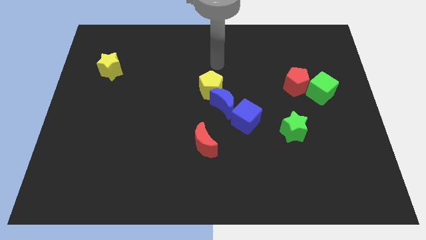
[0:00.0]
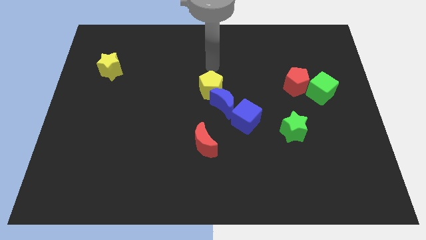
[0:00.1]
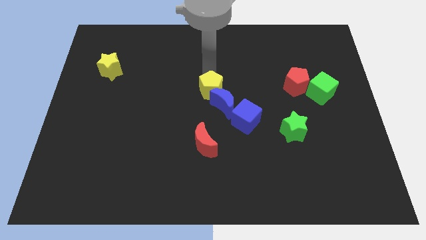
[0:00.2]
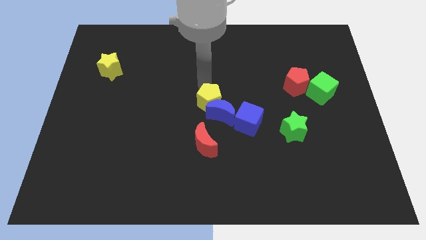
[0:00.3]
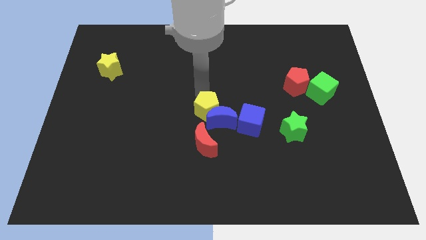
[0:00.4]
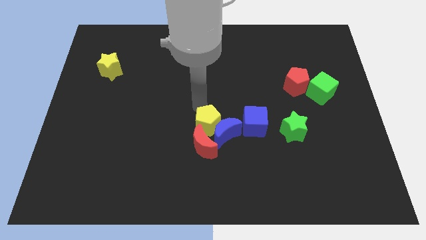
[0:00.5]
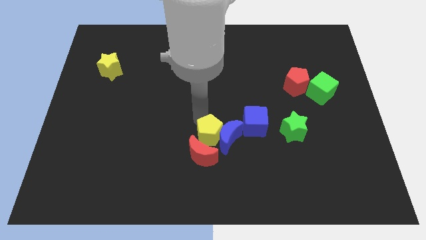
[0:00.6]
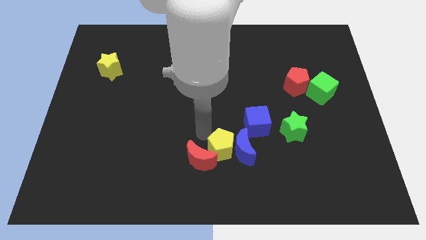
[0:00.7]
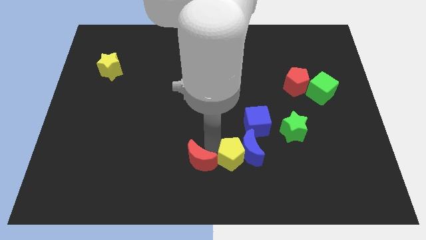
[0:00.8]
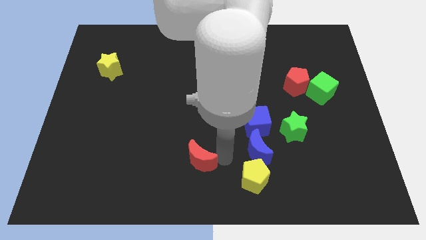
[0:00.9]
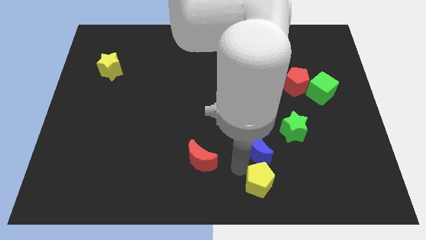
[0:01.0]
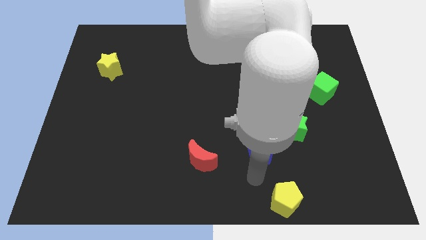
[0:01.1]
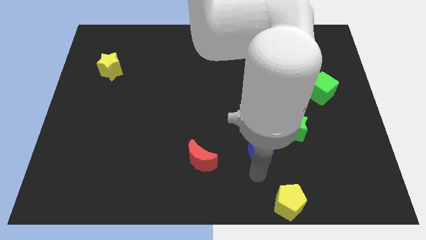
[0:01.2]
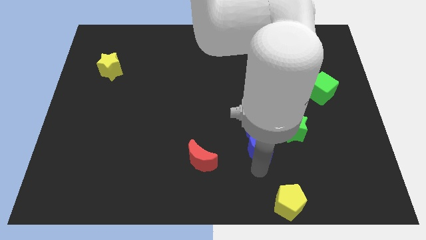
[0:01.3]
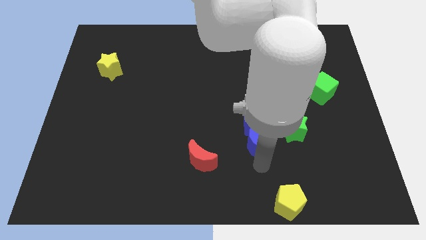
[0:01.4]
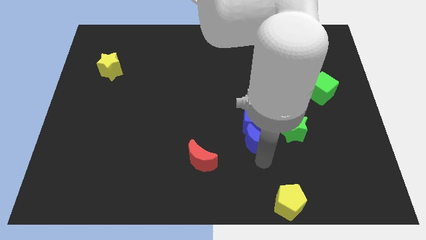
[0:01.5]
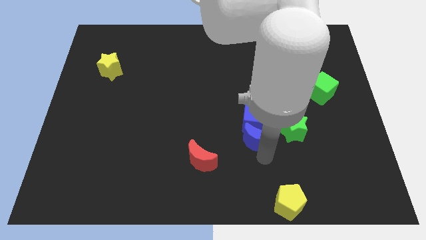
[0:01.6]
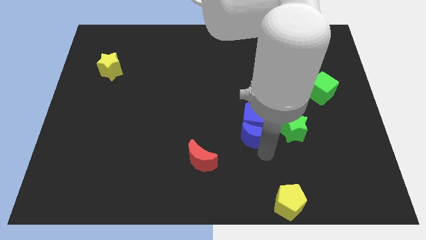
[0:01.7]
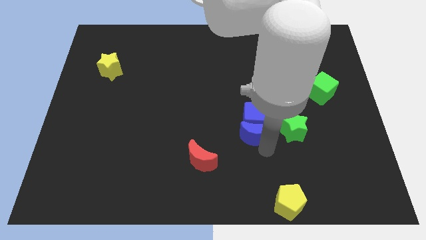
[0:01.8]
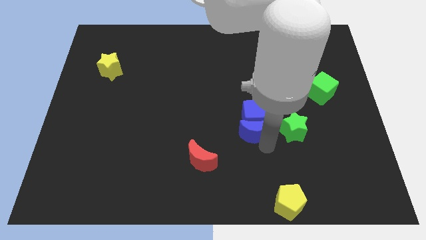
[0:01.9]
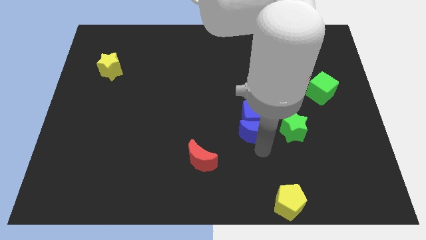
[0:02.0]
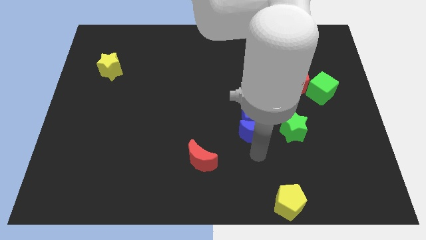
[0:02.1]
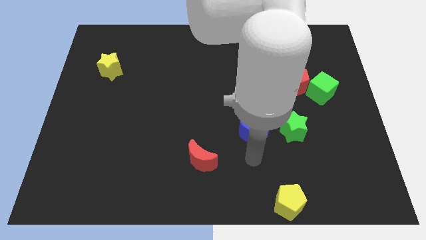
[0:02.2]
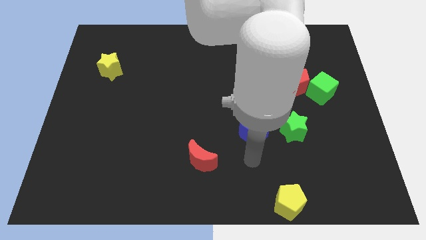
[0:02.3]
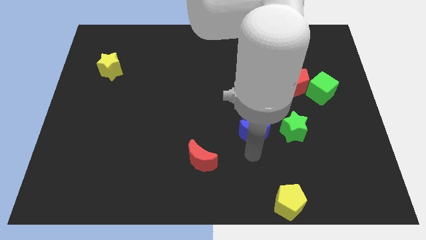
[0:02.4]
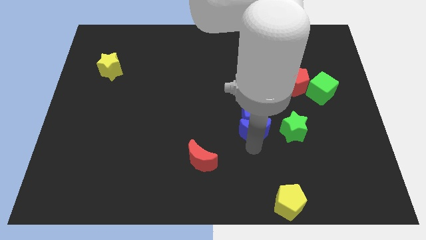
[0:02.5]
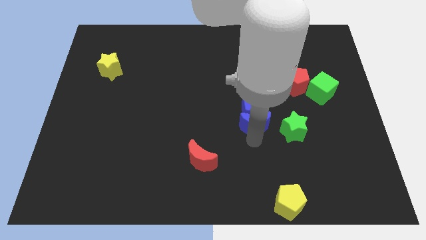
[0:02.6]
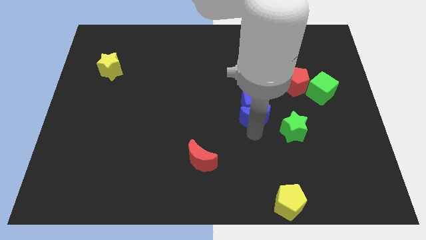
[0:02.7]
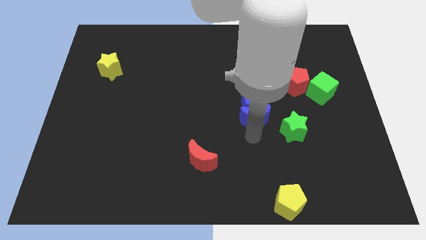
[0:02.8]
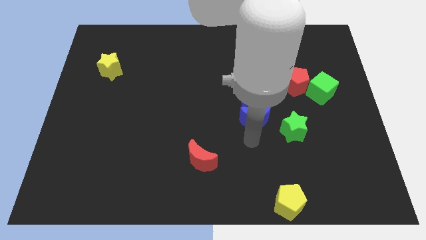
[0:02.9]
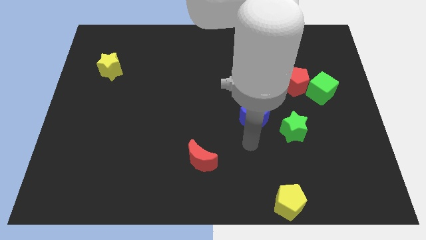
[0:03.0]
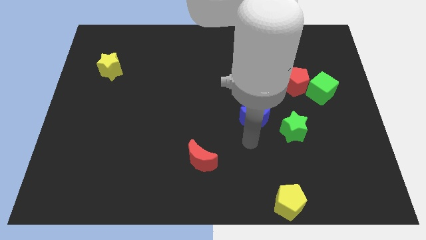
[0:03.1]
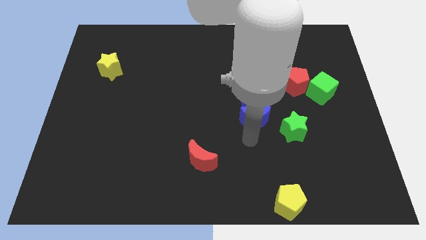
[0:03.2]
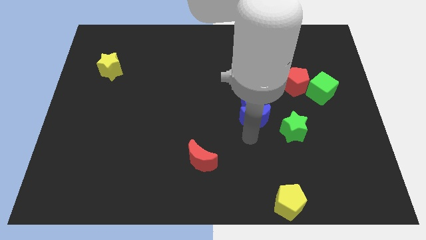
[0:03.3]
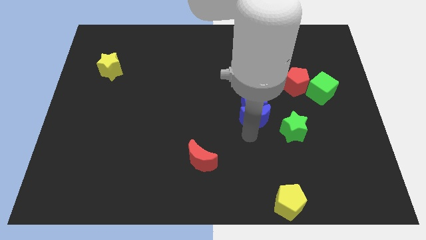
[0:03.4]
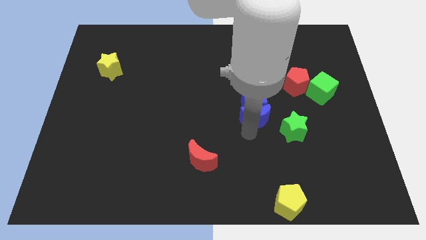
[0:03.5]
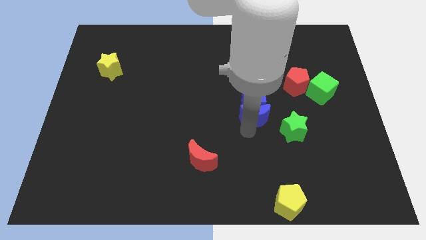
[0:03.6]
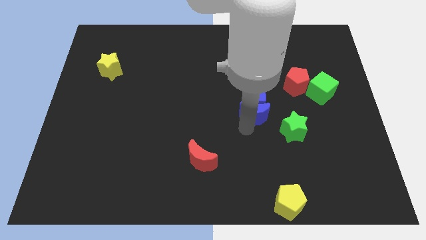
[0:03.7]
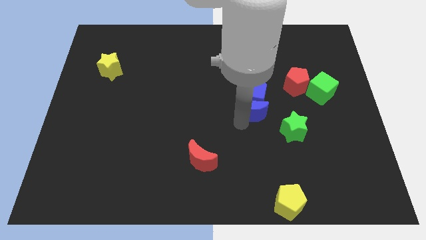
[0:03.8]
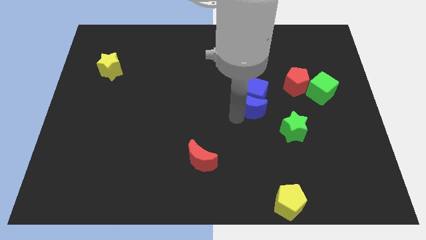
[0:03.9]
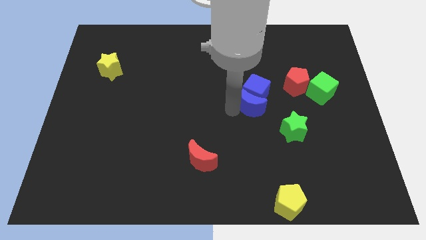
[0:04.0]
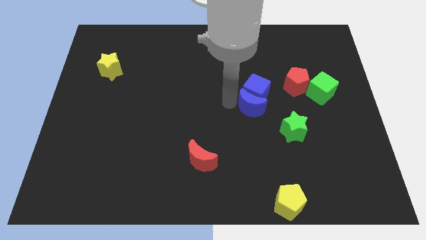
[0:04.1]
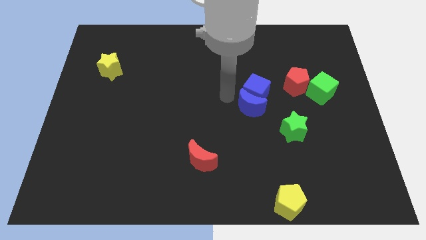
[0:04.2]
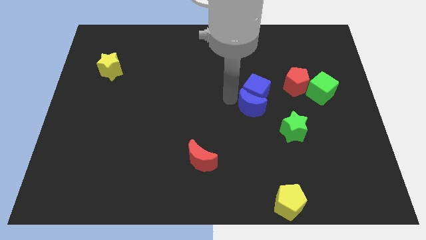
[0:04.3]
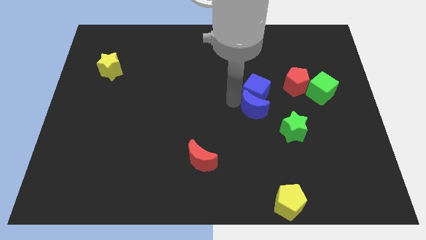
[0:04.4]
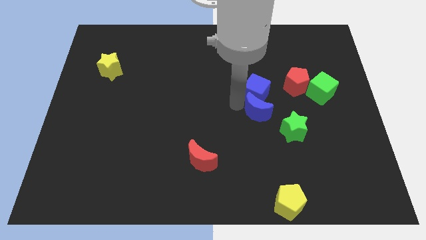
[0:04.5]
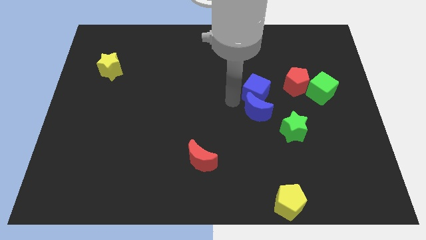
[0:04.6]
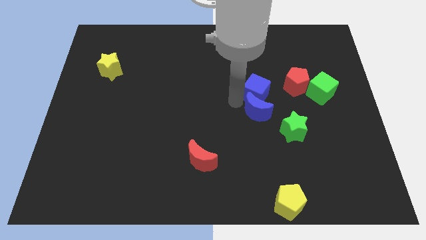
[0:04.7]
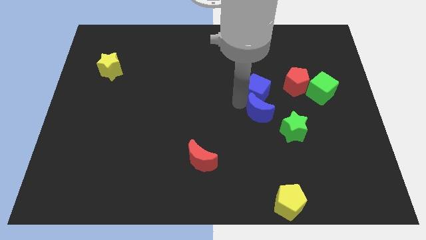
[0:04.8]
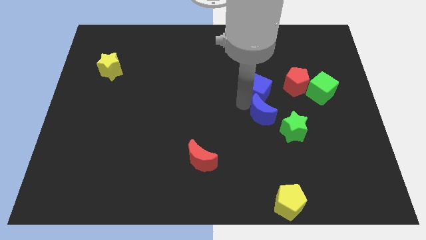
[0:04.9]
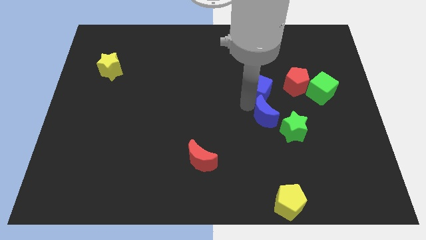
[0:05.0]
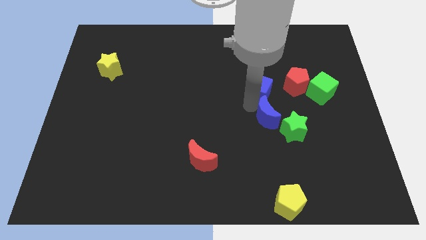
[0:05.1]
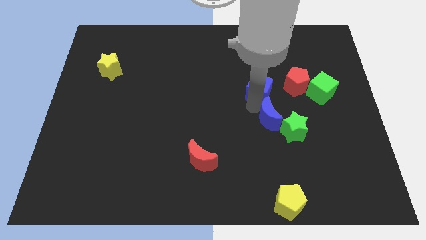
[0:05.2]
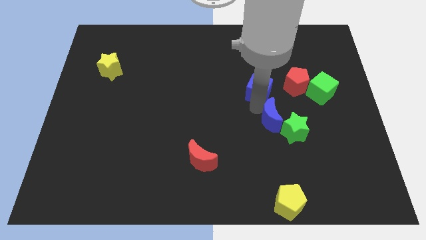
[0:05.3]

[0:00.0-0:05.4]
slide the blue moon towards the green star

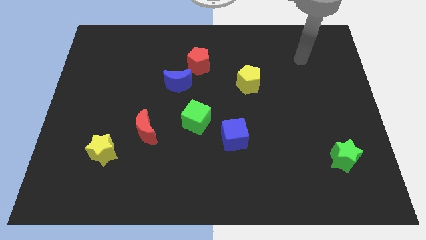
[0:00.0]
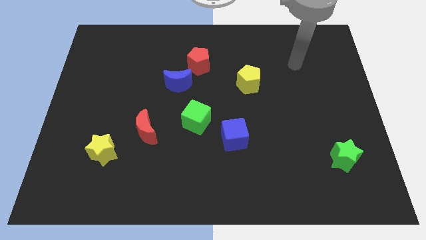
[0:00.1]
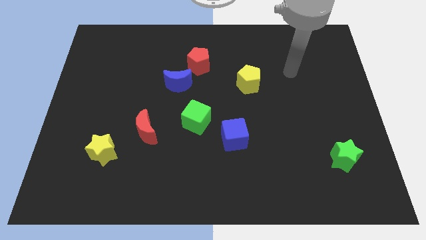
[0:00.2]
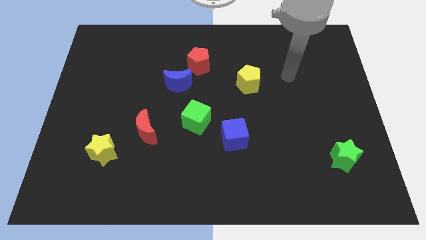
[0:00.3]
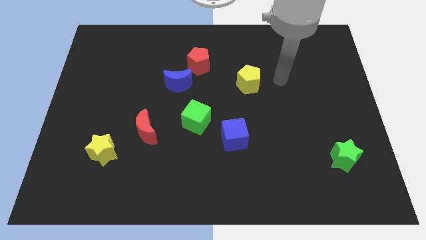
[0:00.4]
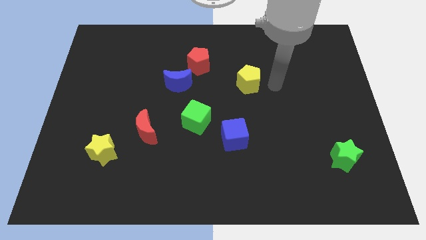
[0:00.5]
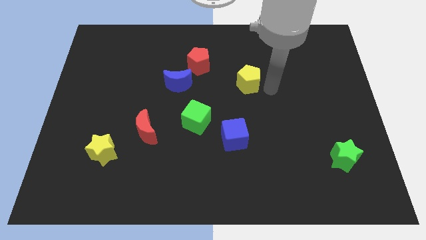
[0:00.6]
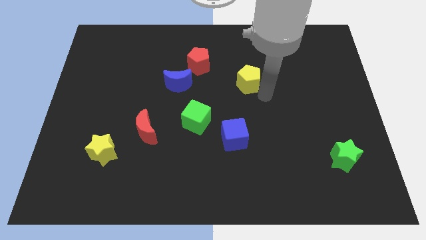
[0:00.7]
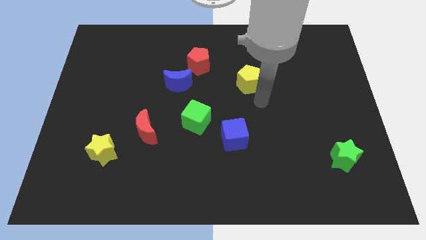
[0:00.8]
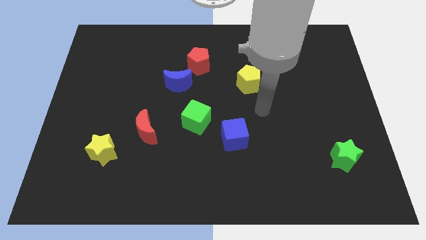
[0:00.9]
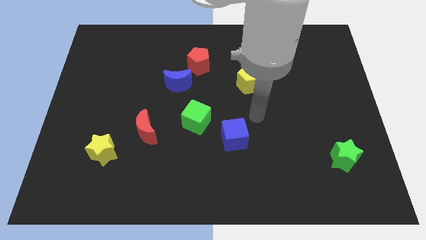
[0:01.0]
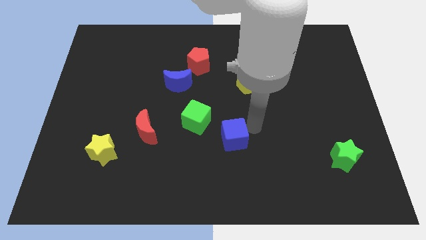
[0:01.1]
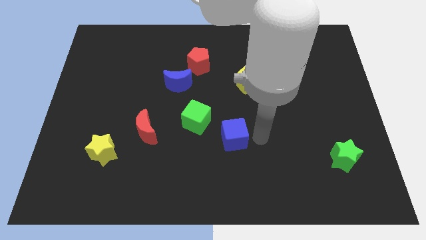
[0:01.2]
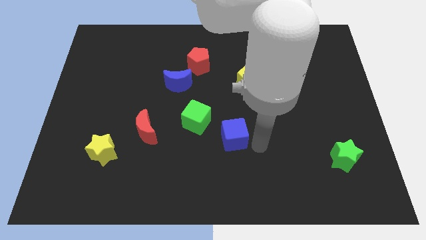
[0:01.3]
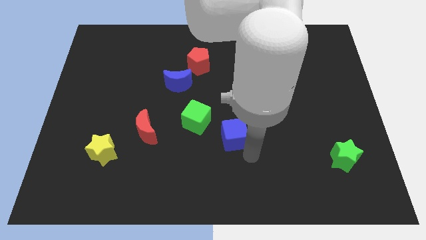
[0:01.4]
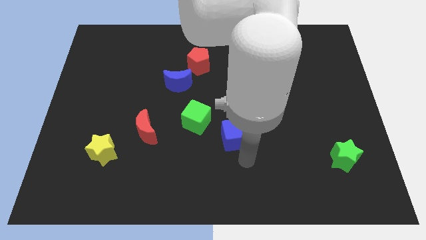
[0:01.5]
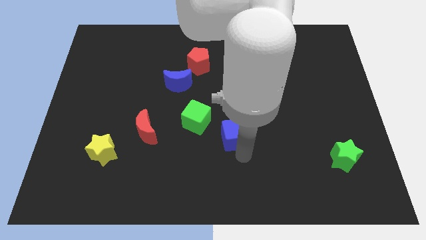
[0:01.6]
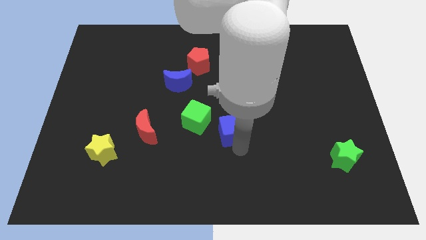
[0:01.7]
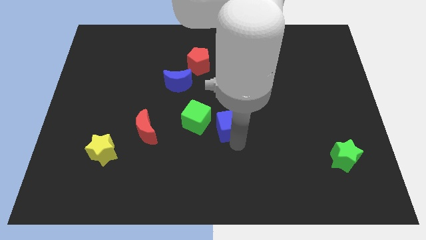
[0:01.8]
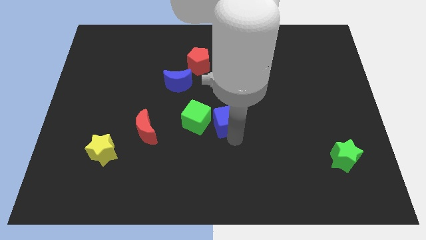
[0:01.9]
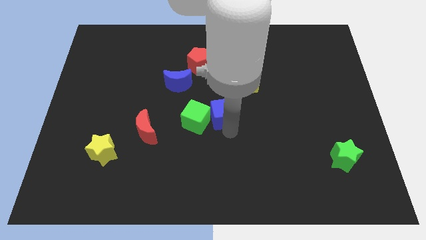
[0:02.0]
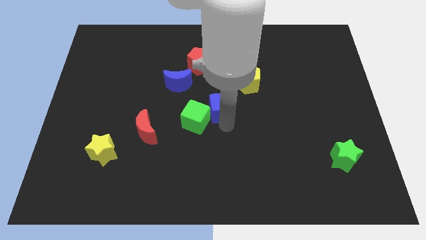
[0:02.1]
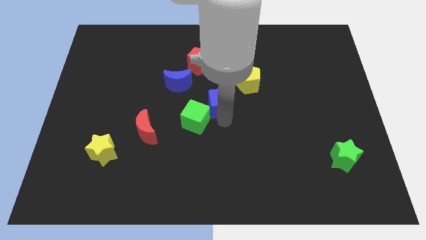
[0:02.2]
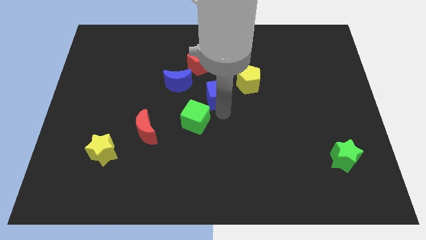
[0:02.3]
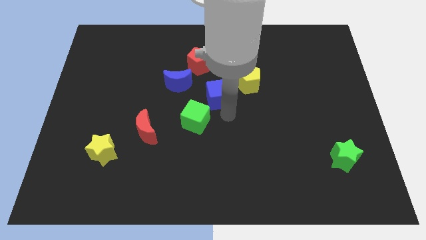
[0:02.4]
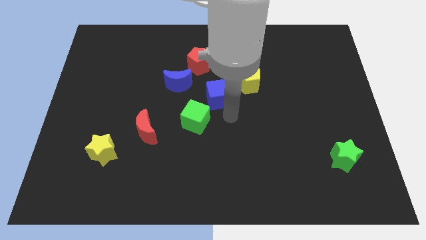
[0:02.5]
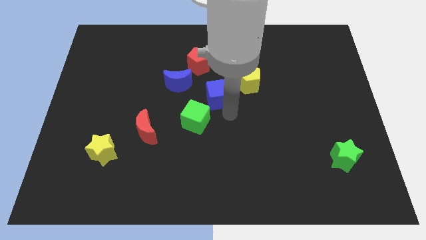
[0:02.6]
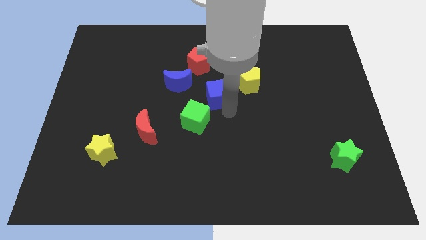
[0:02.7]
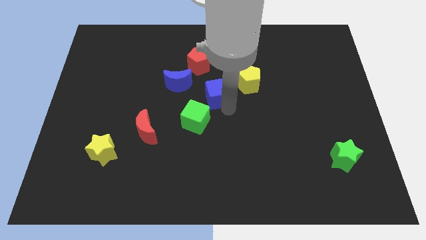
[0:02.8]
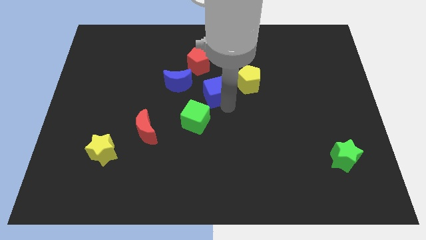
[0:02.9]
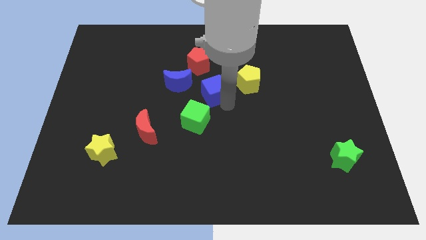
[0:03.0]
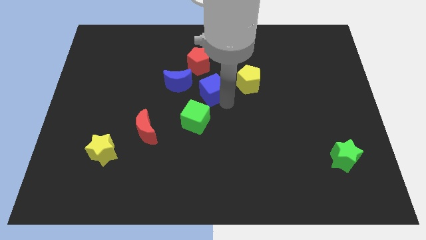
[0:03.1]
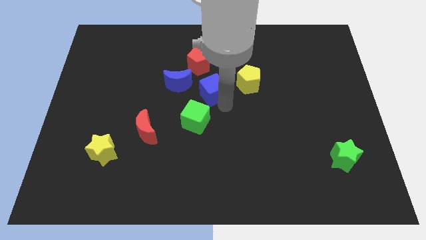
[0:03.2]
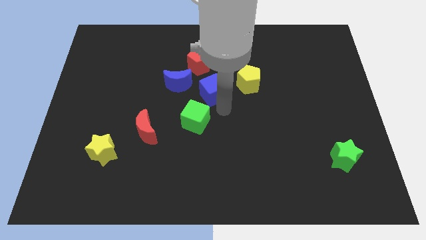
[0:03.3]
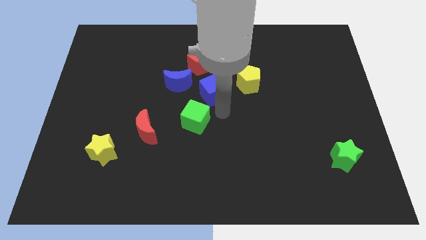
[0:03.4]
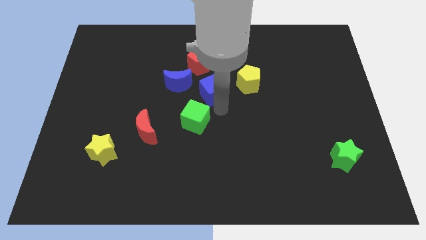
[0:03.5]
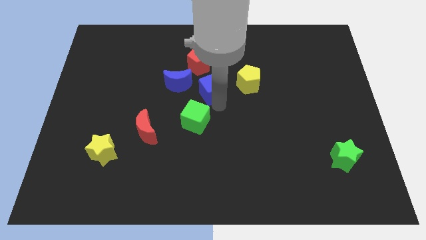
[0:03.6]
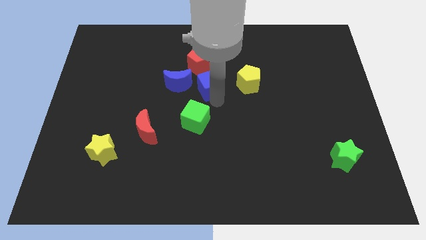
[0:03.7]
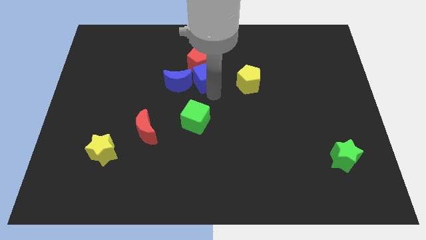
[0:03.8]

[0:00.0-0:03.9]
push the blue cube close to the red pentagon
